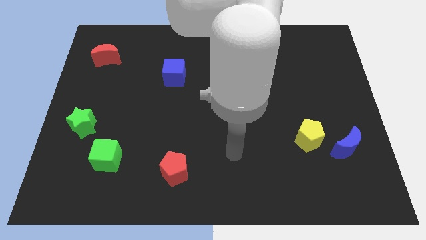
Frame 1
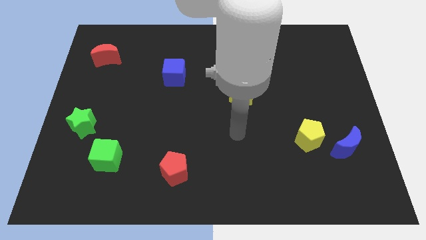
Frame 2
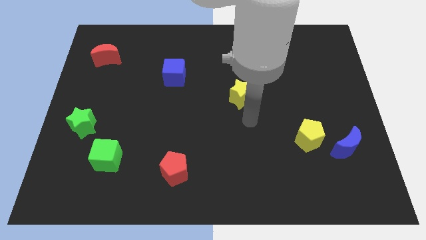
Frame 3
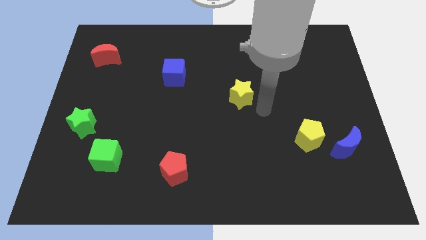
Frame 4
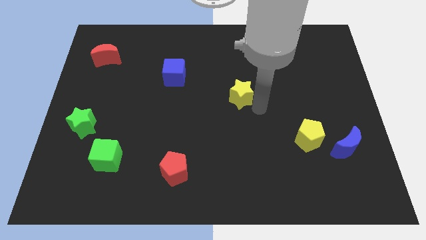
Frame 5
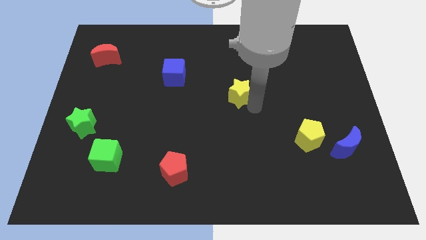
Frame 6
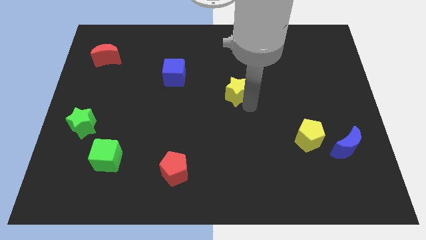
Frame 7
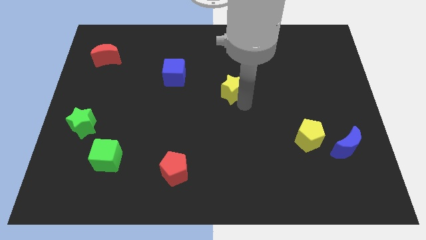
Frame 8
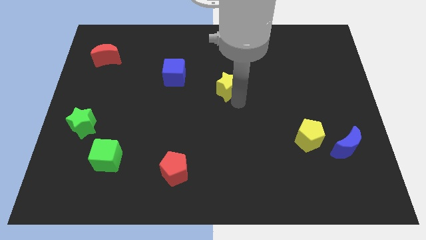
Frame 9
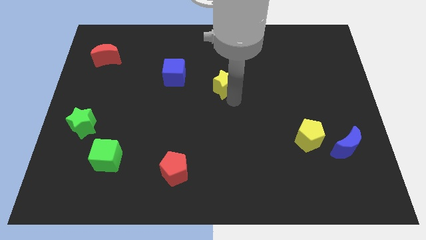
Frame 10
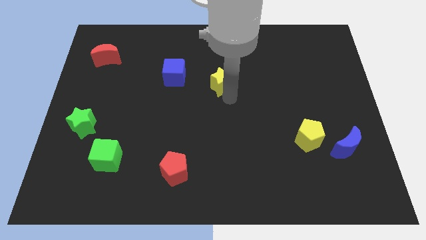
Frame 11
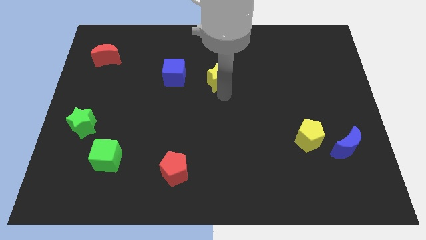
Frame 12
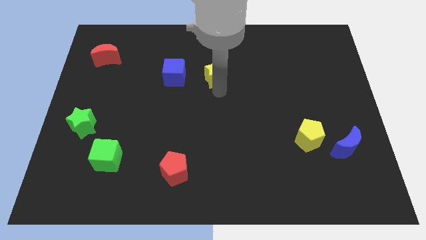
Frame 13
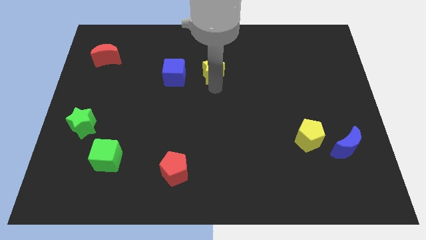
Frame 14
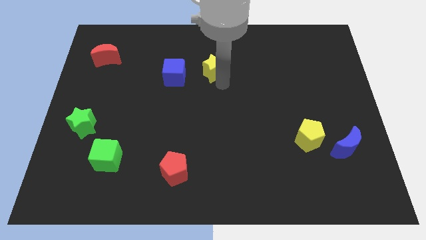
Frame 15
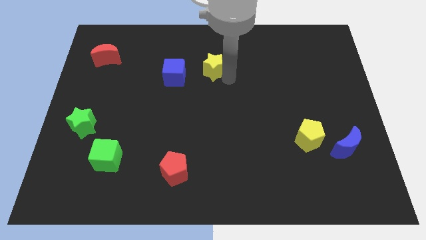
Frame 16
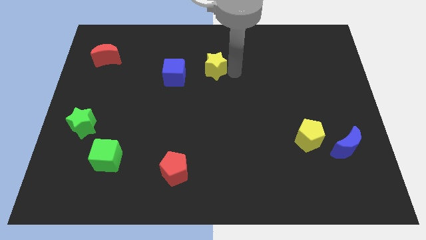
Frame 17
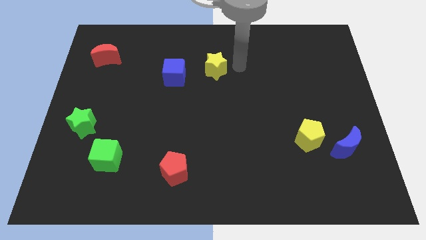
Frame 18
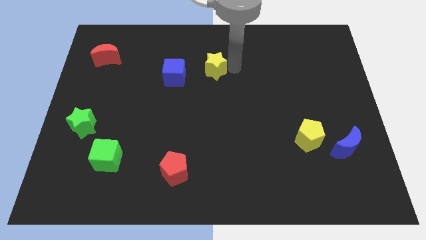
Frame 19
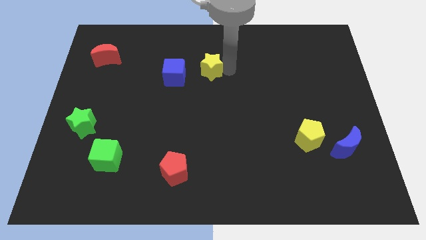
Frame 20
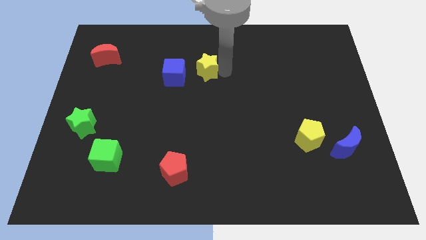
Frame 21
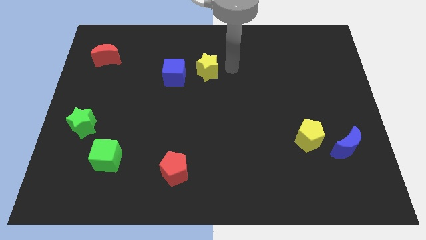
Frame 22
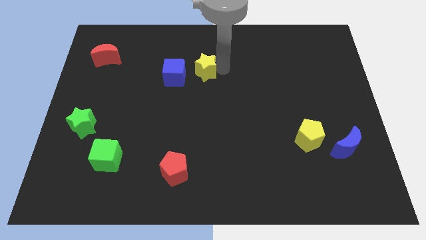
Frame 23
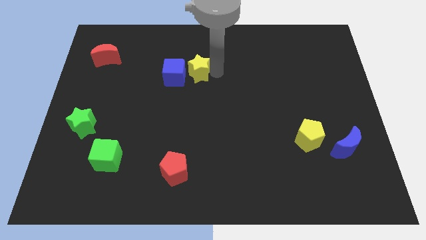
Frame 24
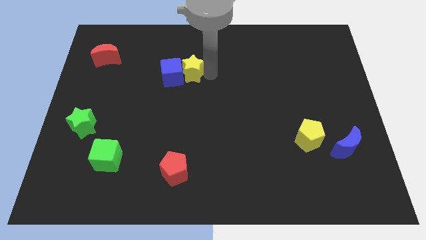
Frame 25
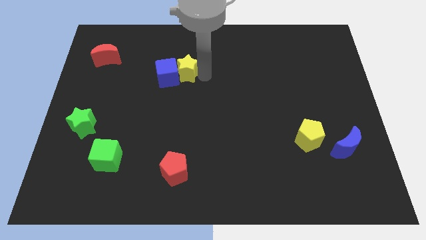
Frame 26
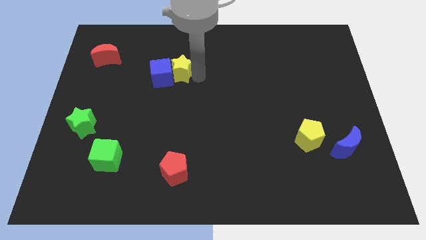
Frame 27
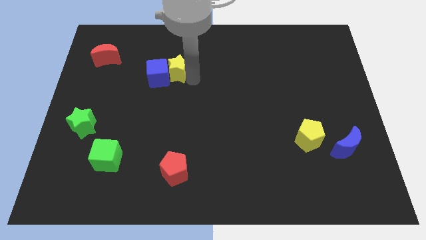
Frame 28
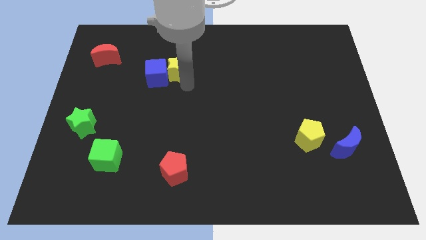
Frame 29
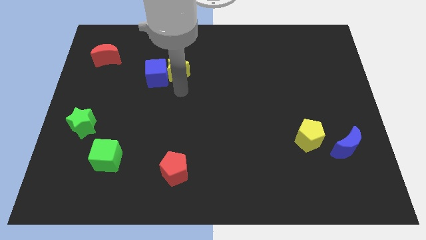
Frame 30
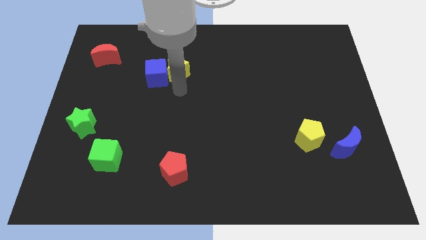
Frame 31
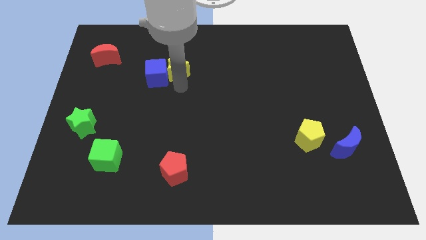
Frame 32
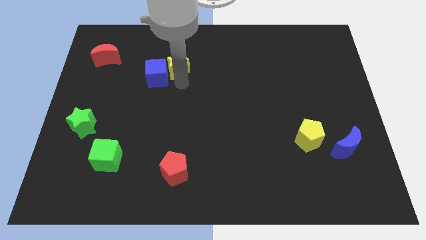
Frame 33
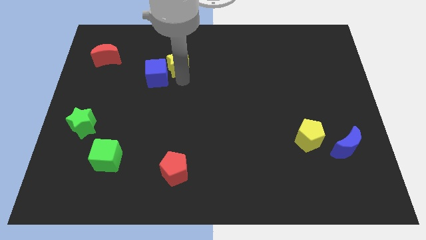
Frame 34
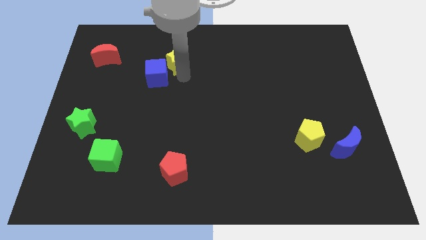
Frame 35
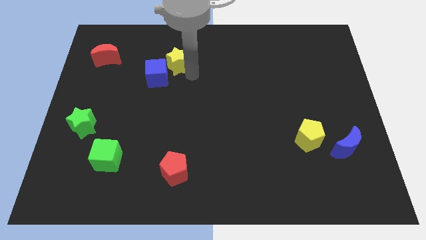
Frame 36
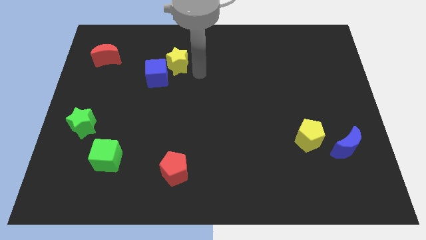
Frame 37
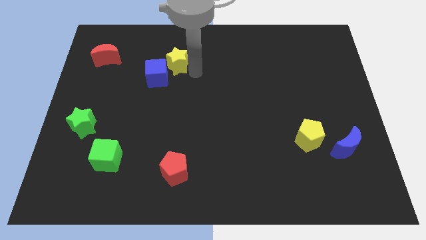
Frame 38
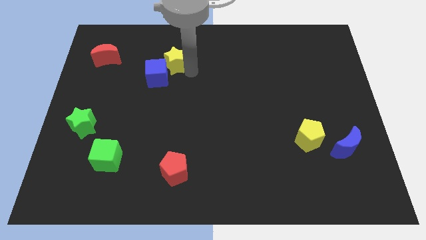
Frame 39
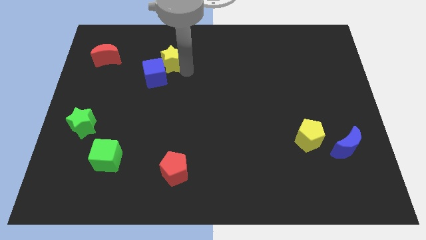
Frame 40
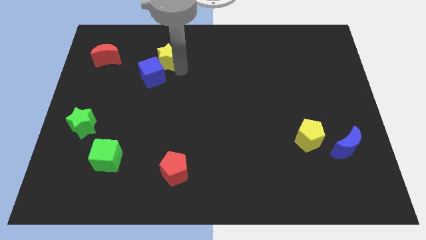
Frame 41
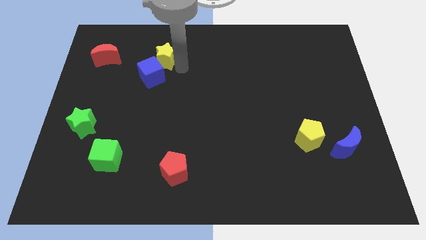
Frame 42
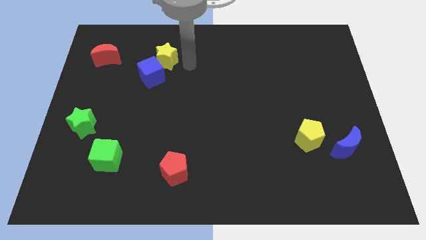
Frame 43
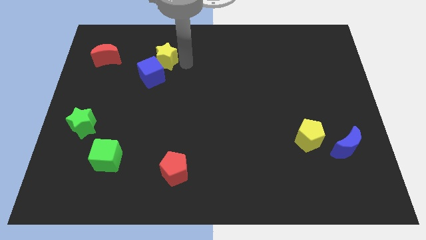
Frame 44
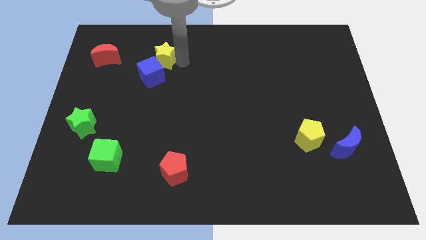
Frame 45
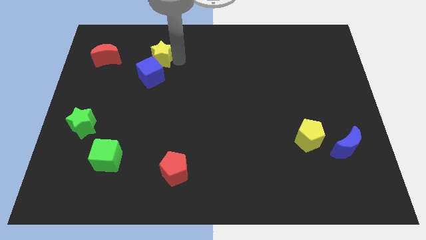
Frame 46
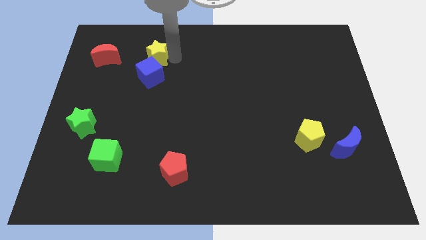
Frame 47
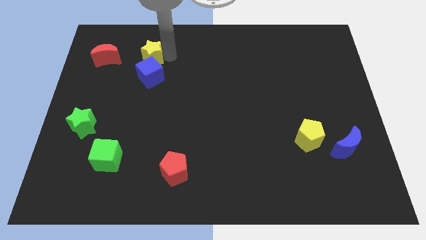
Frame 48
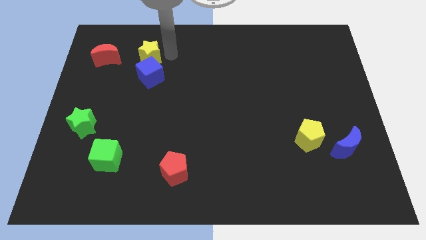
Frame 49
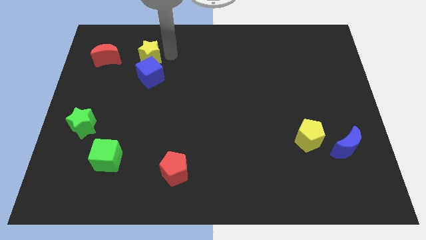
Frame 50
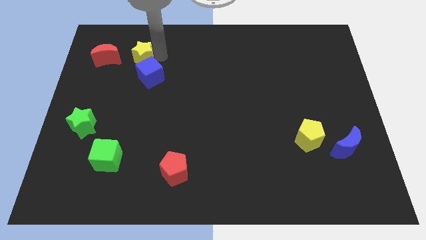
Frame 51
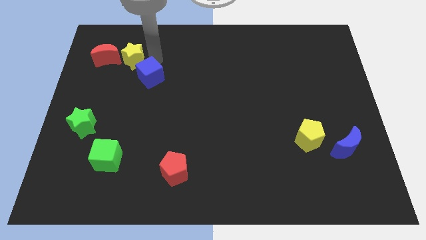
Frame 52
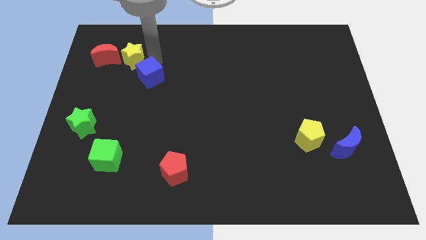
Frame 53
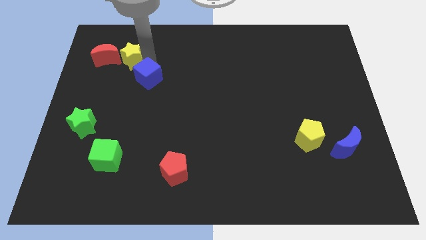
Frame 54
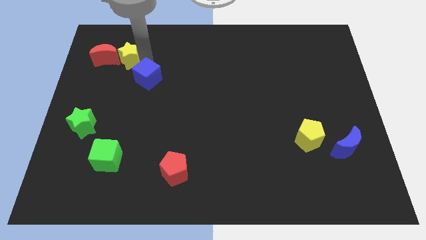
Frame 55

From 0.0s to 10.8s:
move the yellow star to the red moon

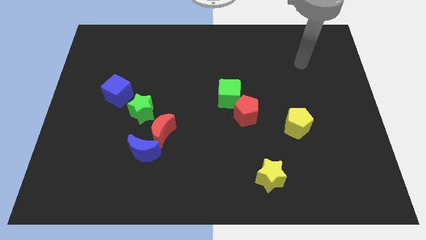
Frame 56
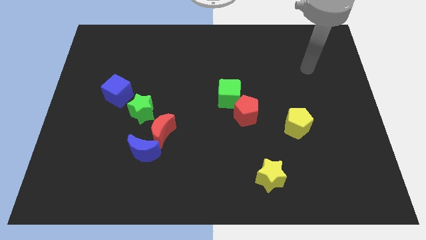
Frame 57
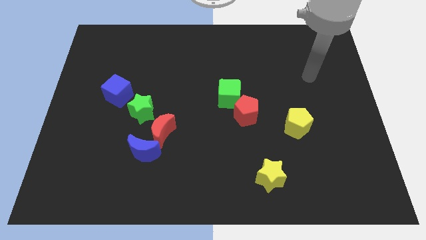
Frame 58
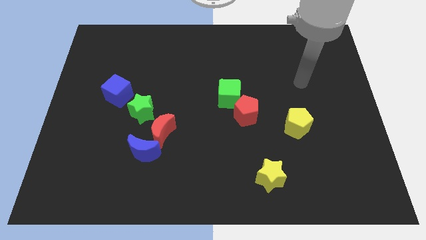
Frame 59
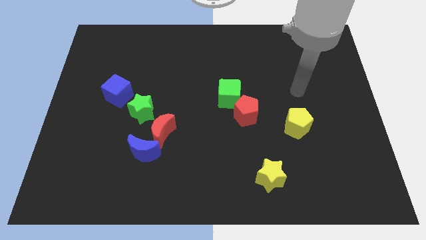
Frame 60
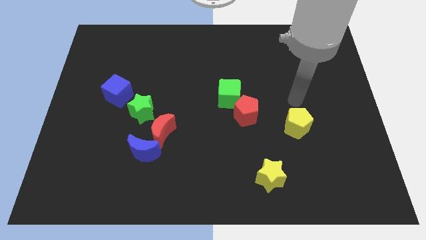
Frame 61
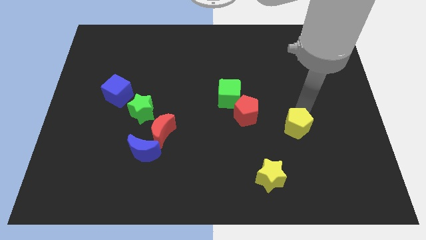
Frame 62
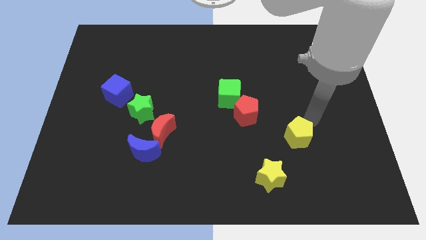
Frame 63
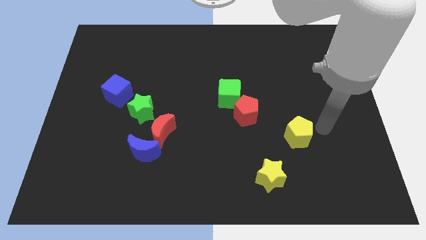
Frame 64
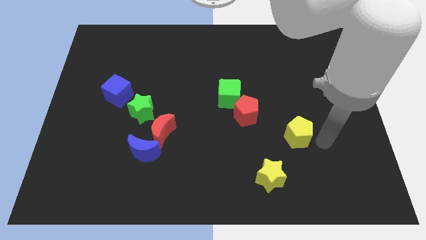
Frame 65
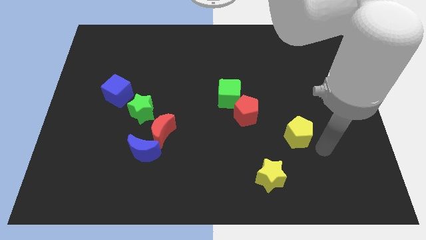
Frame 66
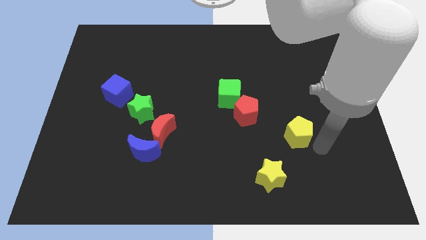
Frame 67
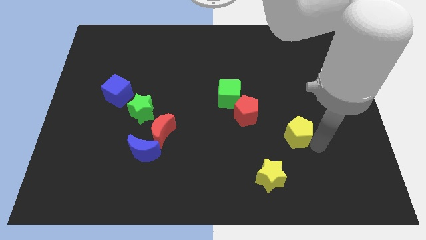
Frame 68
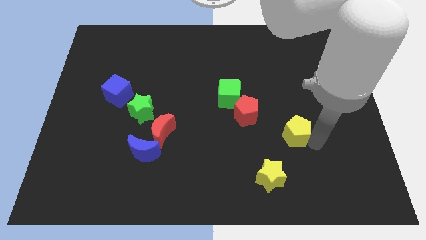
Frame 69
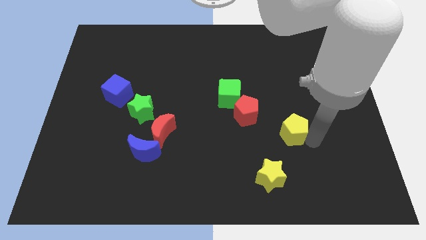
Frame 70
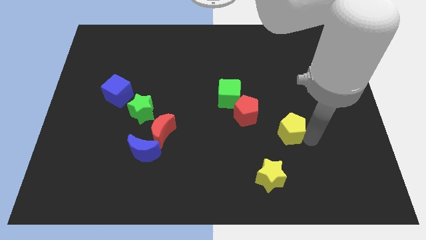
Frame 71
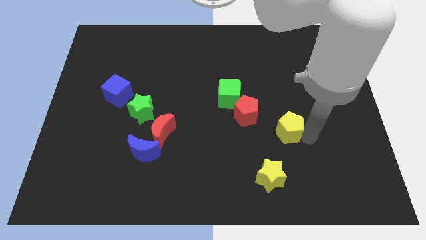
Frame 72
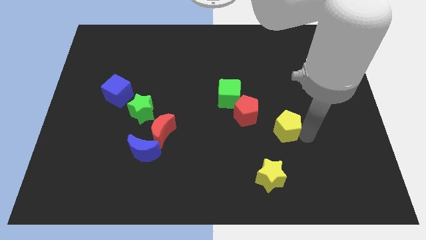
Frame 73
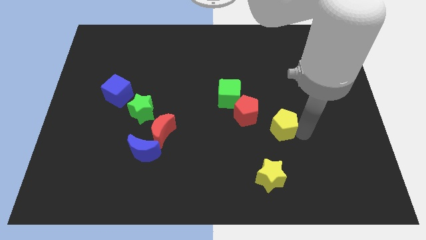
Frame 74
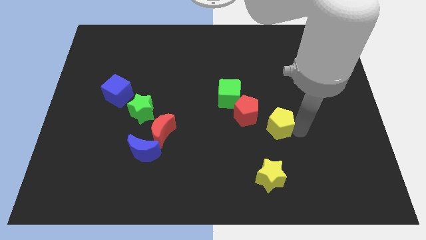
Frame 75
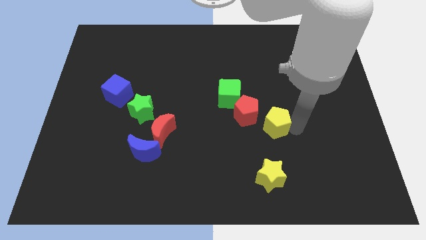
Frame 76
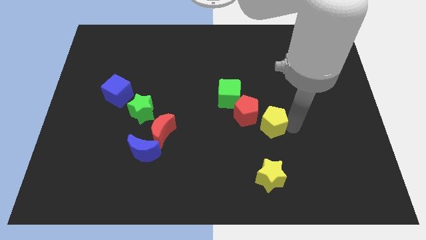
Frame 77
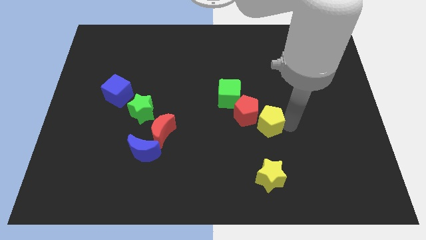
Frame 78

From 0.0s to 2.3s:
move the yellow pentagon close to the red pentagon
